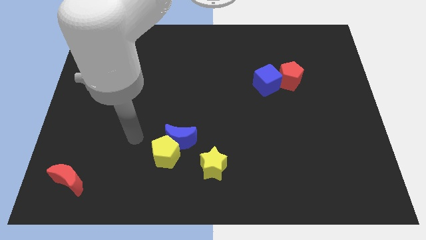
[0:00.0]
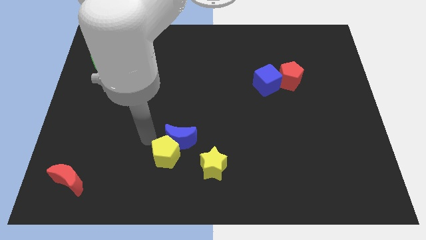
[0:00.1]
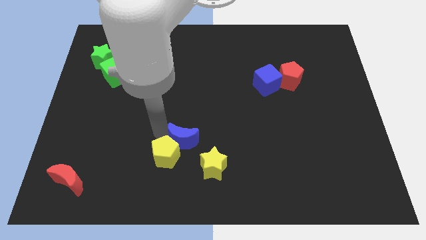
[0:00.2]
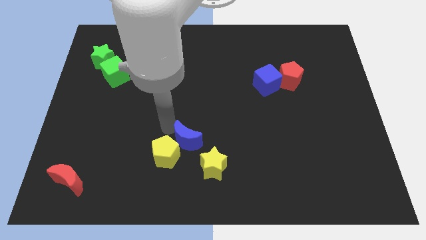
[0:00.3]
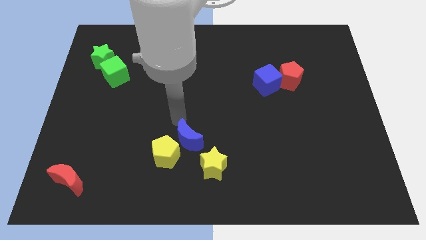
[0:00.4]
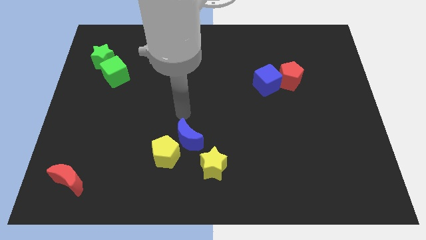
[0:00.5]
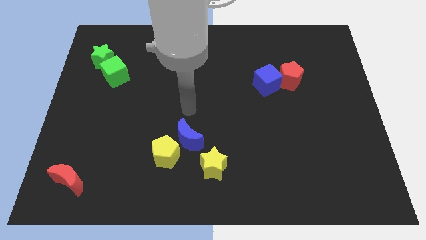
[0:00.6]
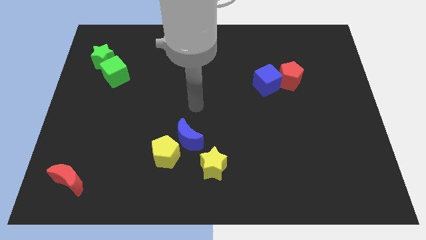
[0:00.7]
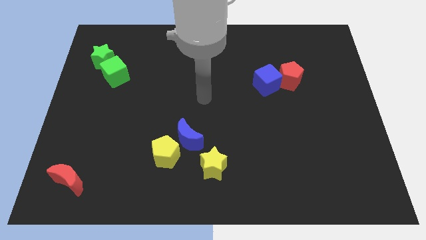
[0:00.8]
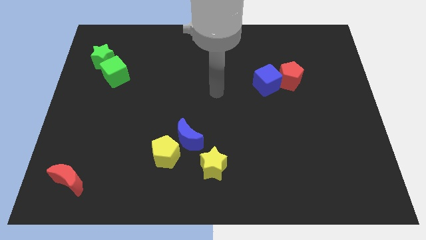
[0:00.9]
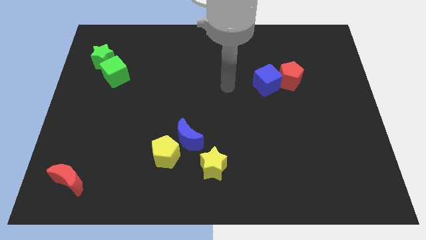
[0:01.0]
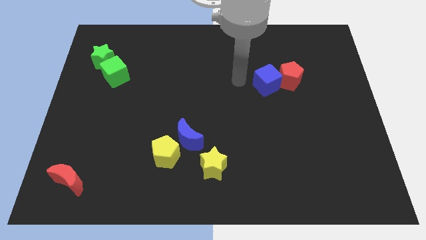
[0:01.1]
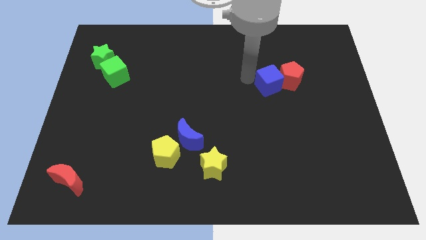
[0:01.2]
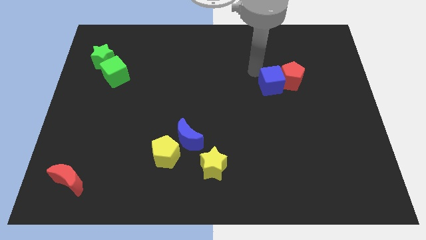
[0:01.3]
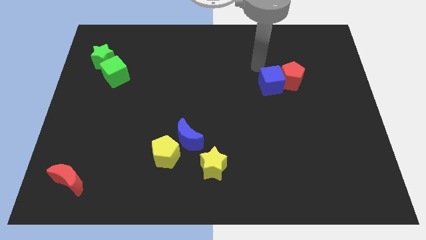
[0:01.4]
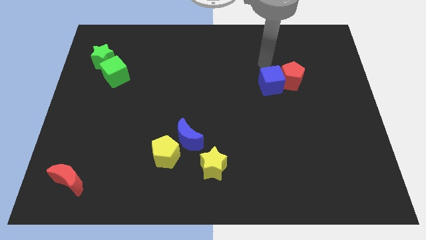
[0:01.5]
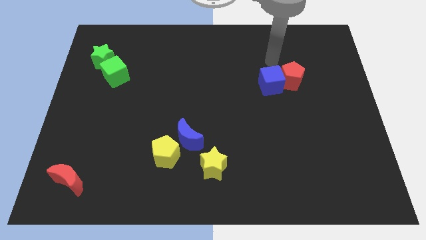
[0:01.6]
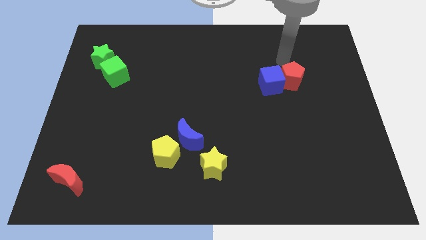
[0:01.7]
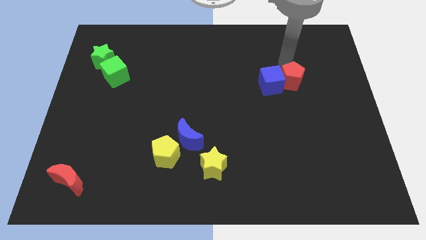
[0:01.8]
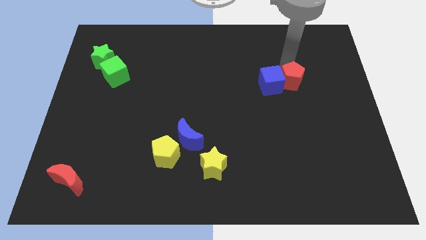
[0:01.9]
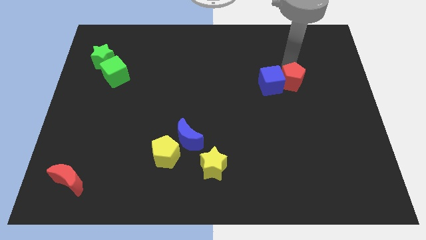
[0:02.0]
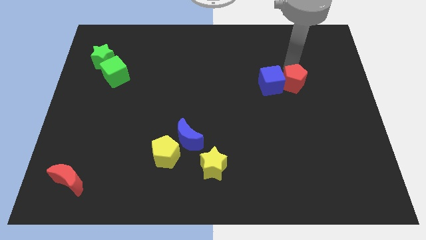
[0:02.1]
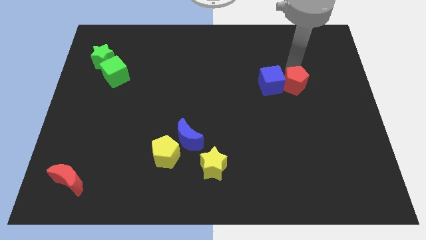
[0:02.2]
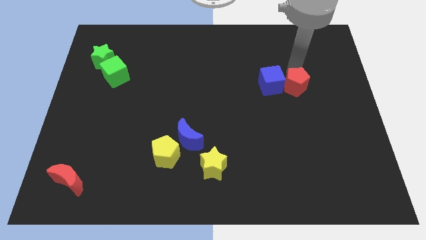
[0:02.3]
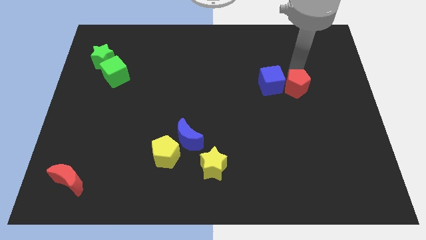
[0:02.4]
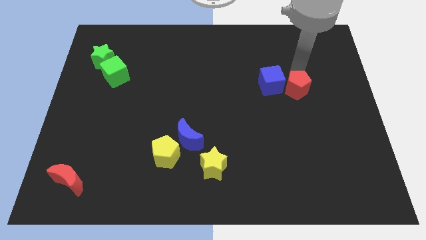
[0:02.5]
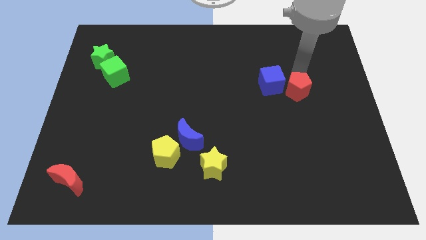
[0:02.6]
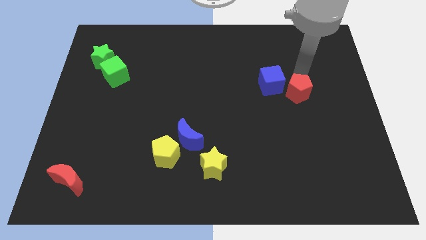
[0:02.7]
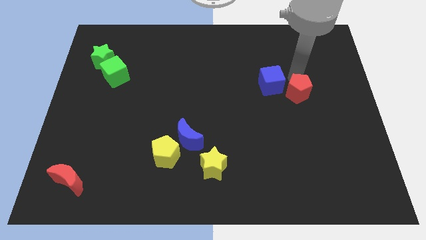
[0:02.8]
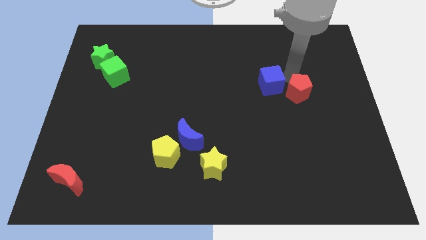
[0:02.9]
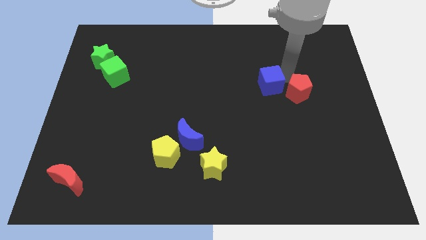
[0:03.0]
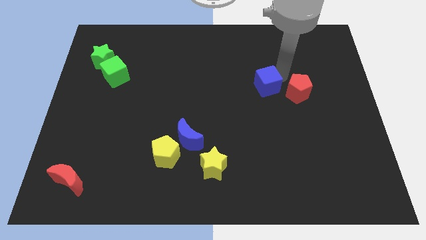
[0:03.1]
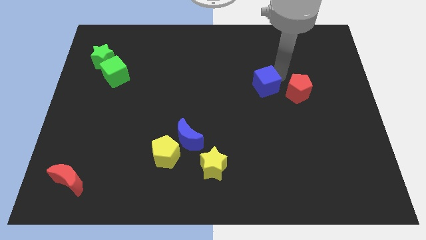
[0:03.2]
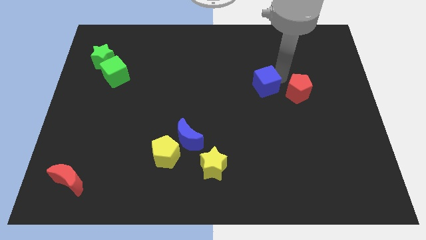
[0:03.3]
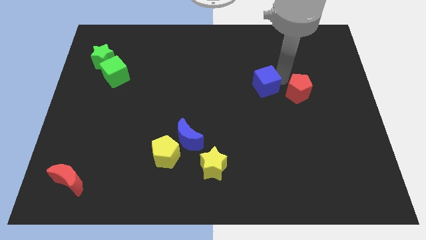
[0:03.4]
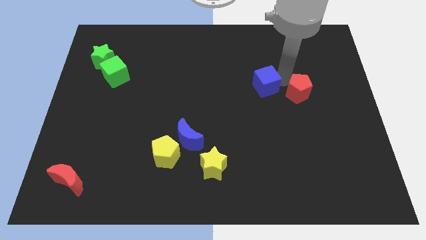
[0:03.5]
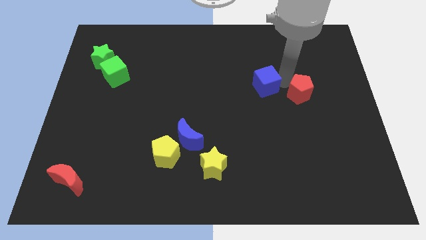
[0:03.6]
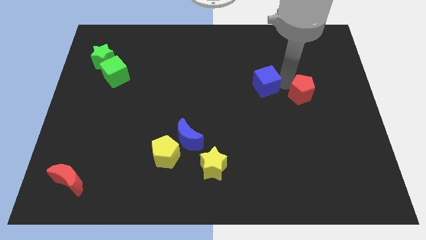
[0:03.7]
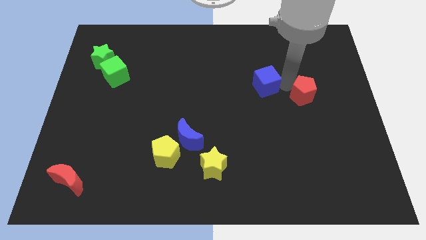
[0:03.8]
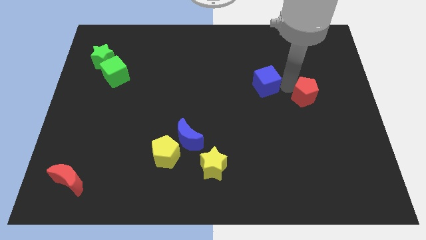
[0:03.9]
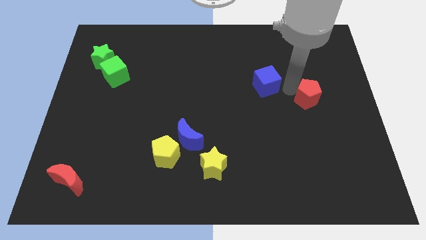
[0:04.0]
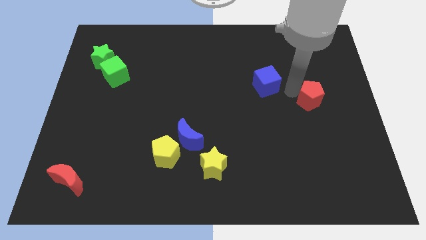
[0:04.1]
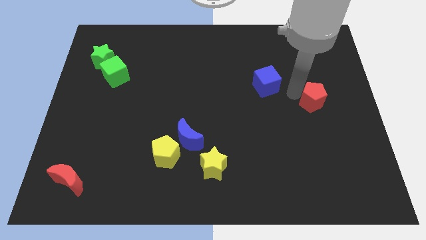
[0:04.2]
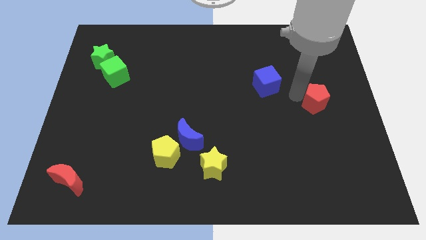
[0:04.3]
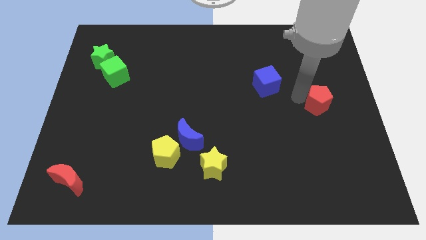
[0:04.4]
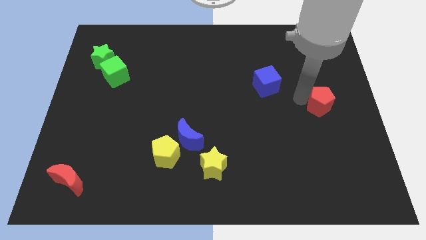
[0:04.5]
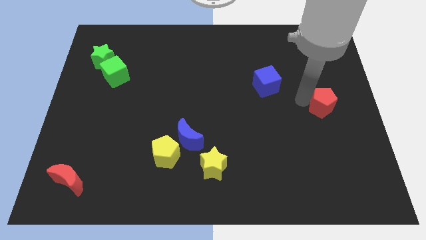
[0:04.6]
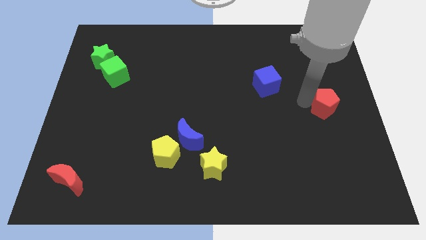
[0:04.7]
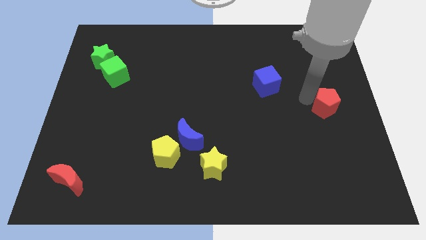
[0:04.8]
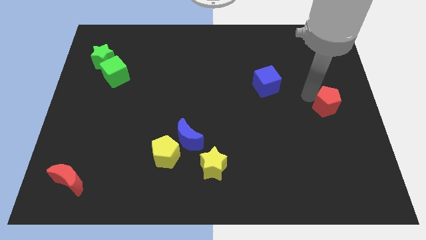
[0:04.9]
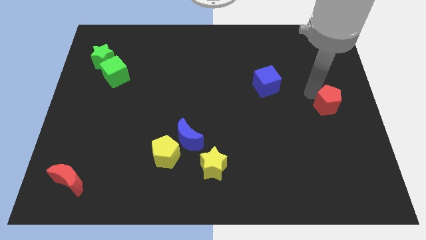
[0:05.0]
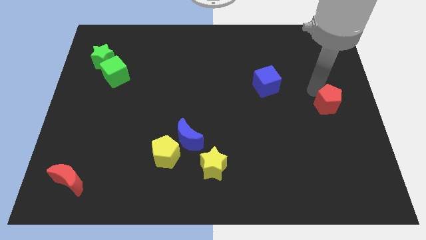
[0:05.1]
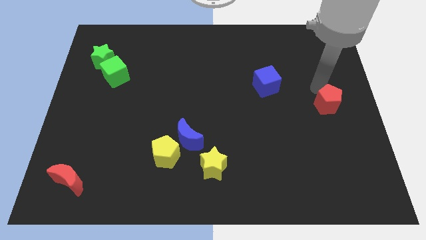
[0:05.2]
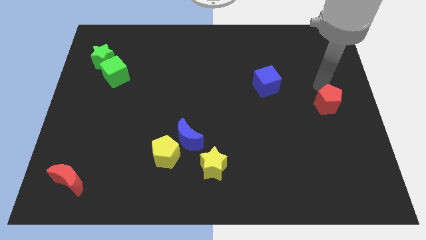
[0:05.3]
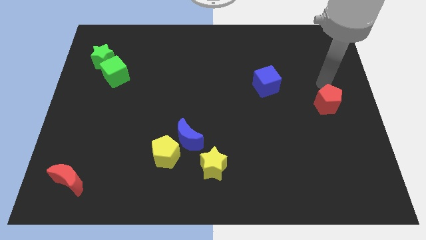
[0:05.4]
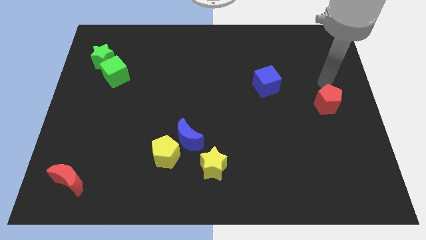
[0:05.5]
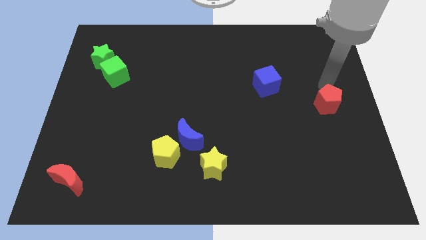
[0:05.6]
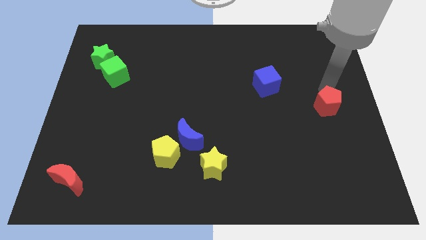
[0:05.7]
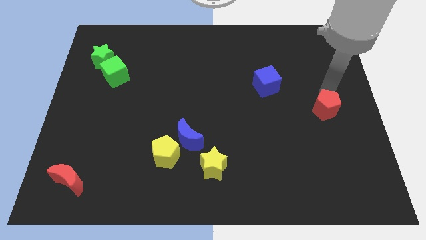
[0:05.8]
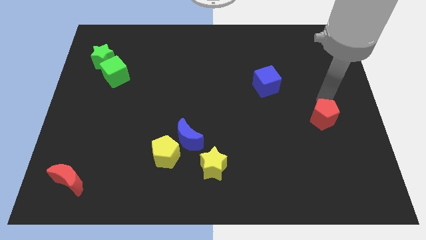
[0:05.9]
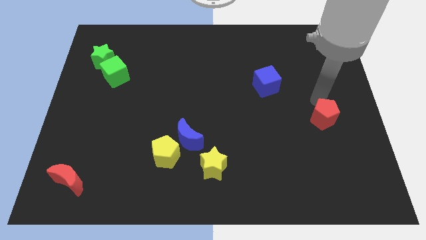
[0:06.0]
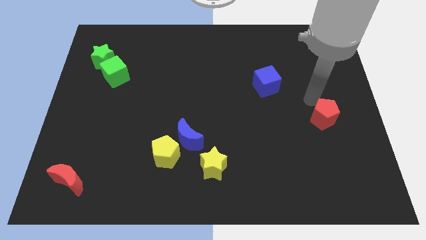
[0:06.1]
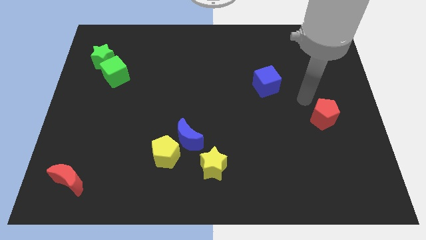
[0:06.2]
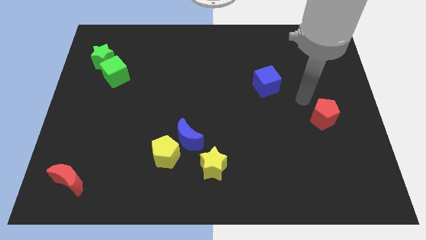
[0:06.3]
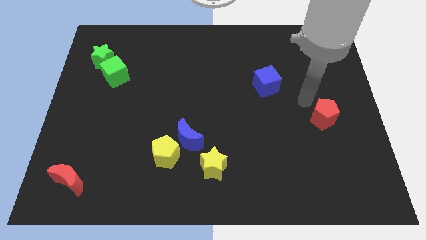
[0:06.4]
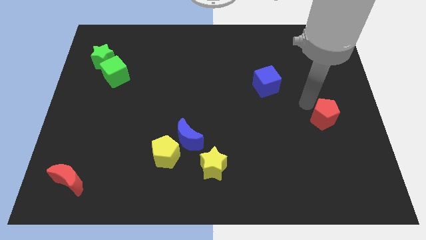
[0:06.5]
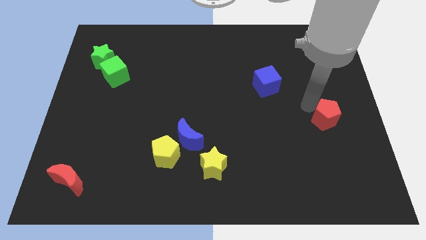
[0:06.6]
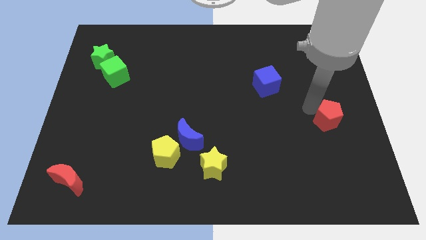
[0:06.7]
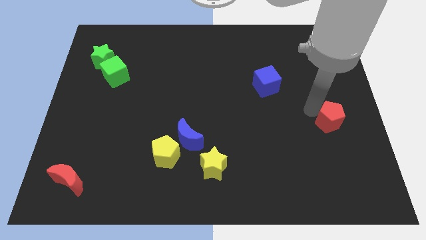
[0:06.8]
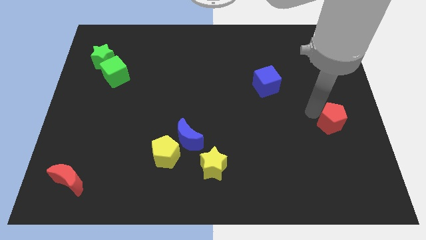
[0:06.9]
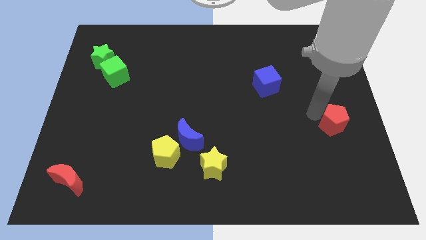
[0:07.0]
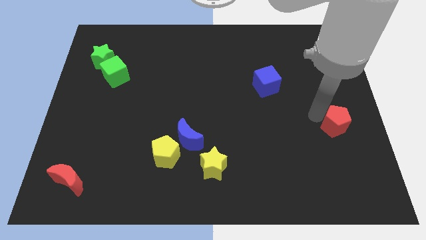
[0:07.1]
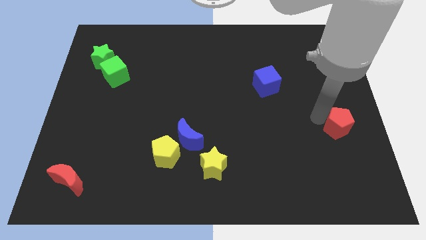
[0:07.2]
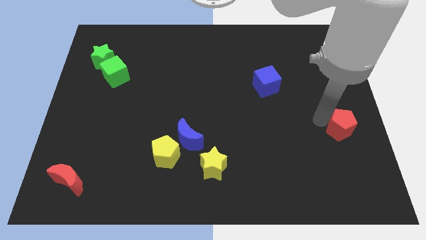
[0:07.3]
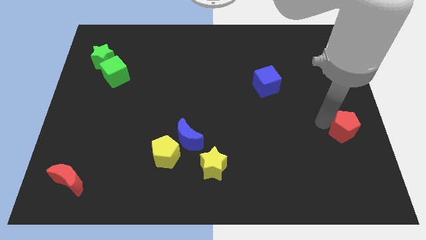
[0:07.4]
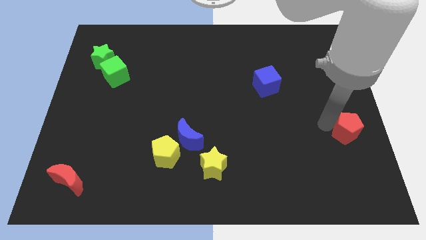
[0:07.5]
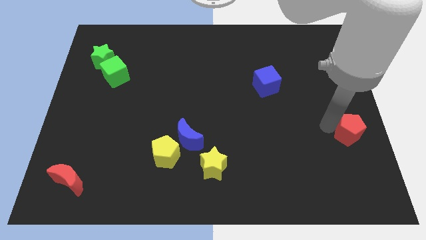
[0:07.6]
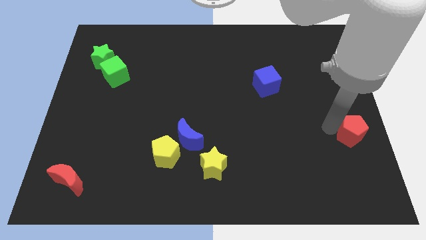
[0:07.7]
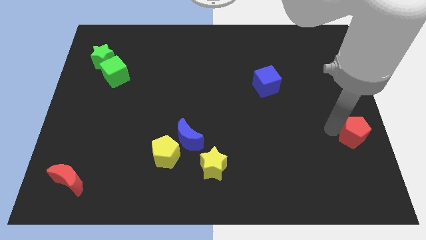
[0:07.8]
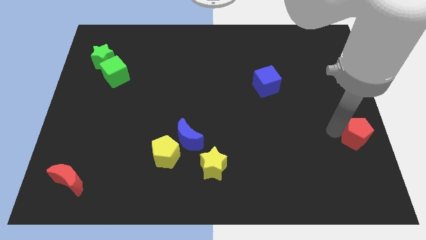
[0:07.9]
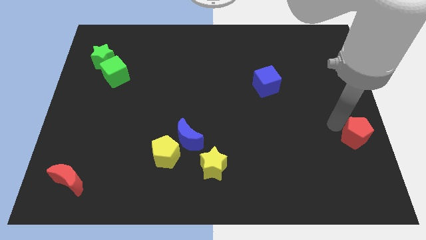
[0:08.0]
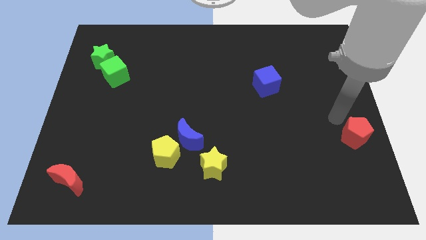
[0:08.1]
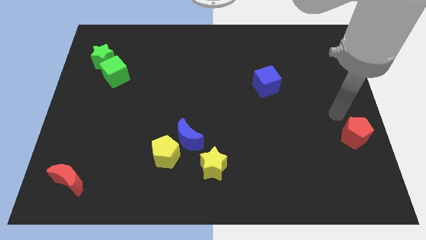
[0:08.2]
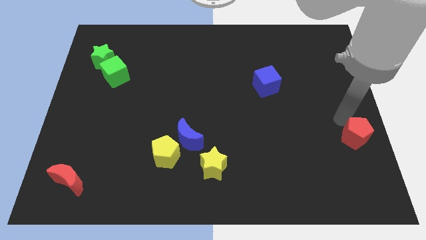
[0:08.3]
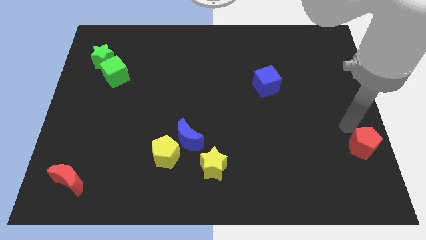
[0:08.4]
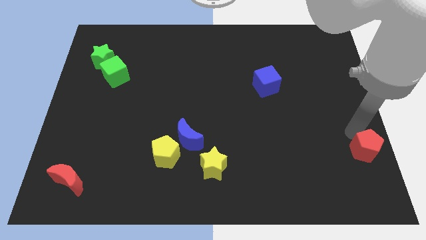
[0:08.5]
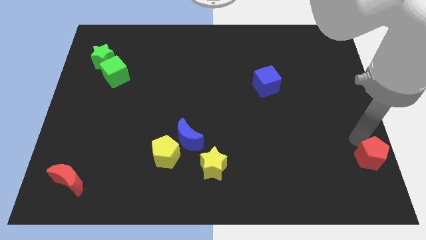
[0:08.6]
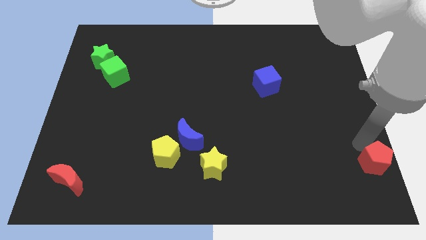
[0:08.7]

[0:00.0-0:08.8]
slide the red pentagon to the bottom right
